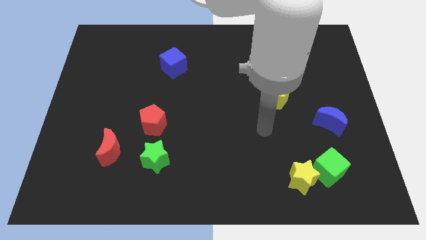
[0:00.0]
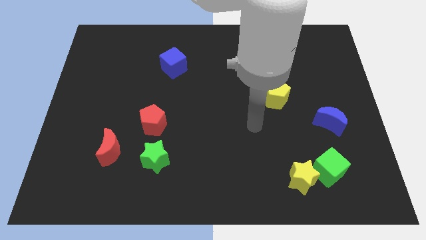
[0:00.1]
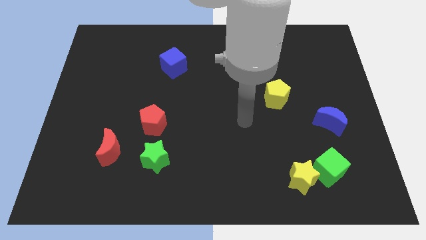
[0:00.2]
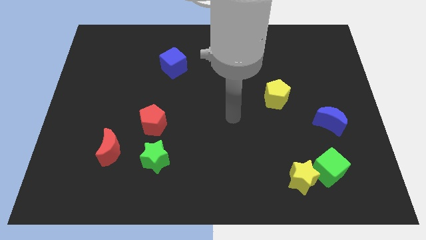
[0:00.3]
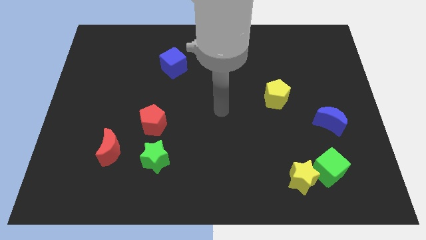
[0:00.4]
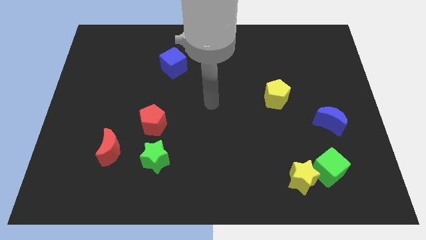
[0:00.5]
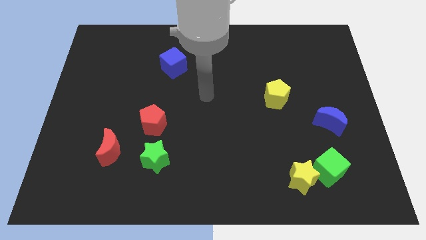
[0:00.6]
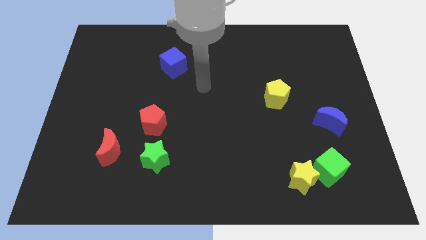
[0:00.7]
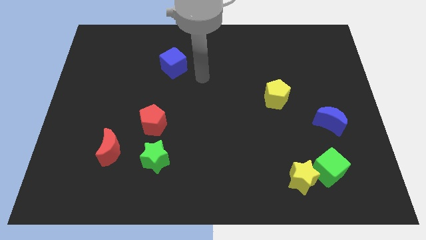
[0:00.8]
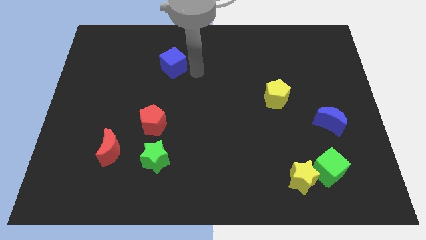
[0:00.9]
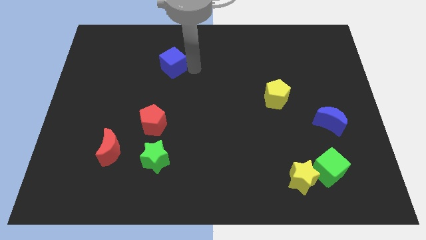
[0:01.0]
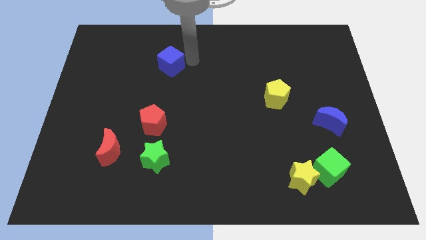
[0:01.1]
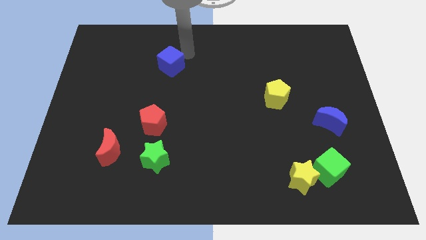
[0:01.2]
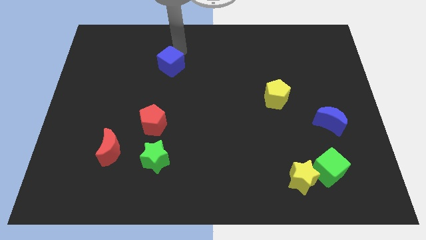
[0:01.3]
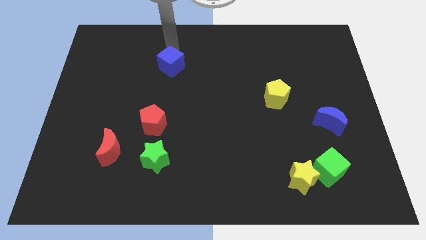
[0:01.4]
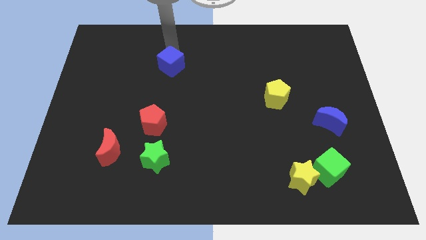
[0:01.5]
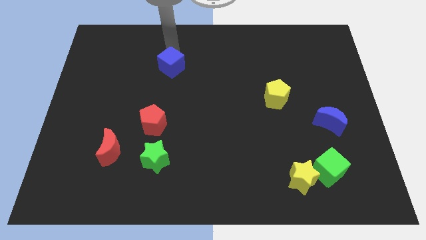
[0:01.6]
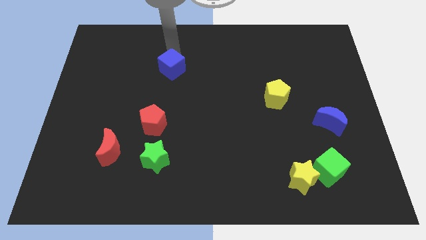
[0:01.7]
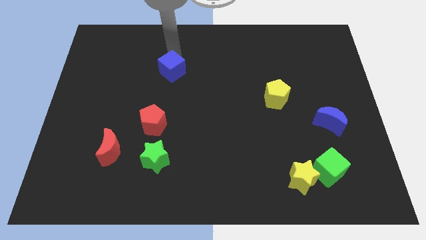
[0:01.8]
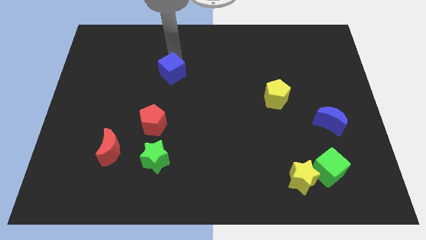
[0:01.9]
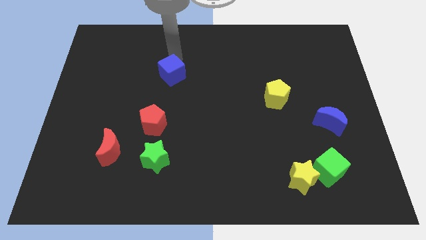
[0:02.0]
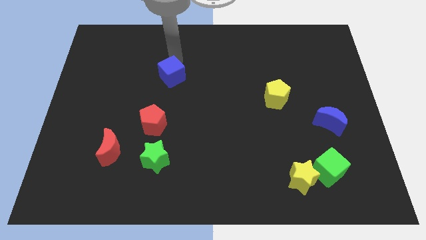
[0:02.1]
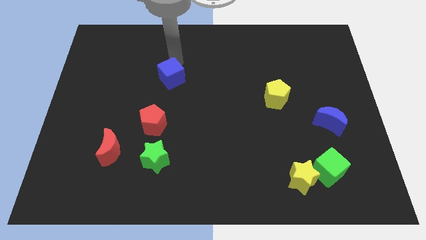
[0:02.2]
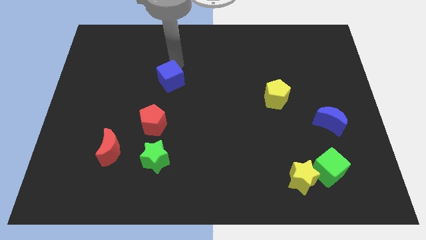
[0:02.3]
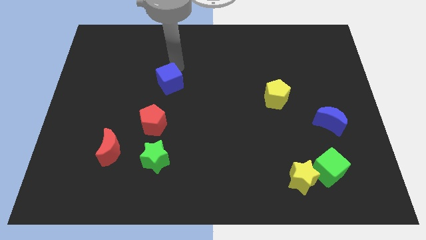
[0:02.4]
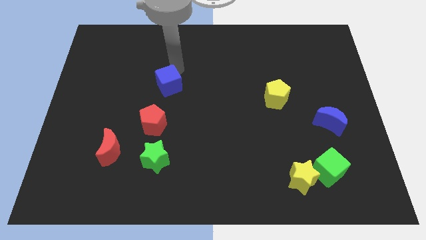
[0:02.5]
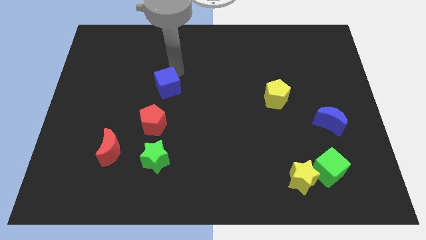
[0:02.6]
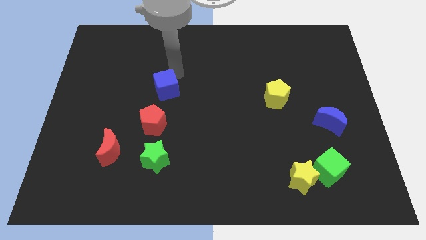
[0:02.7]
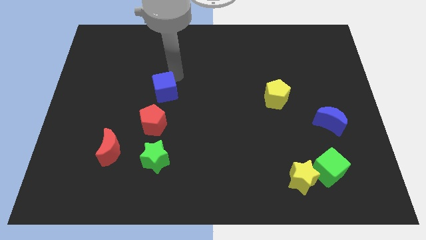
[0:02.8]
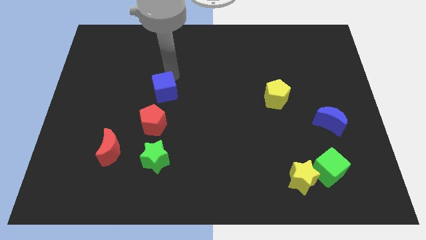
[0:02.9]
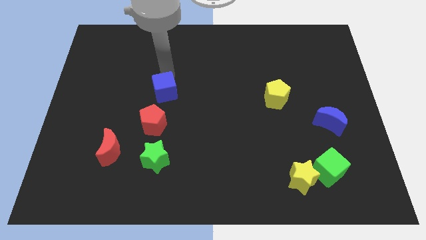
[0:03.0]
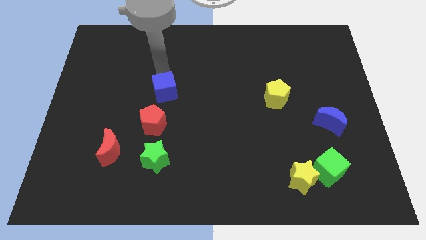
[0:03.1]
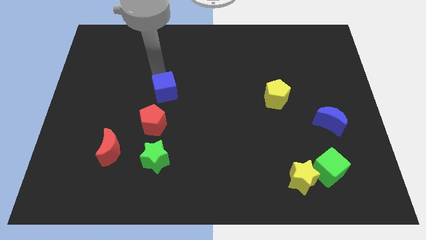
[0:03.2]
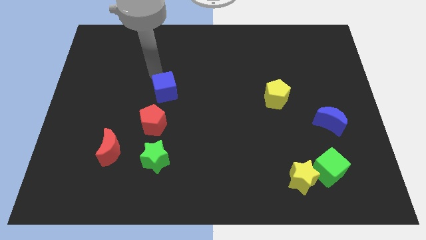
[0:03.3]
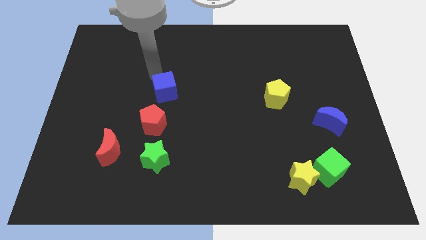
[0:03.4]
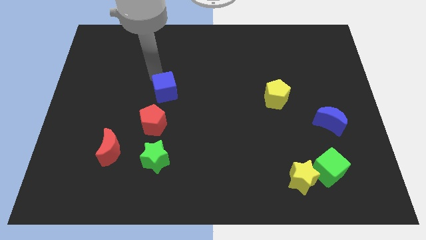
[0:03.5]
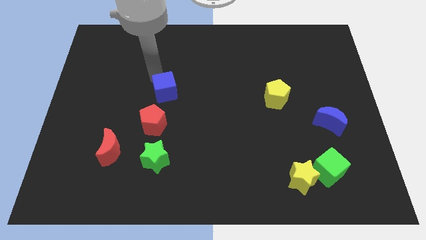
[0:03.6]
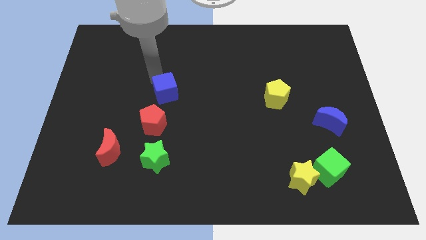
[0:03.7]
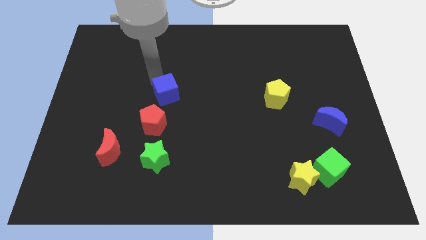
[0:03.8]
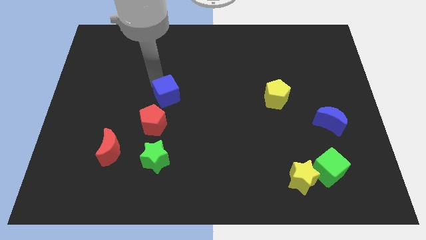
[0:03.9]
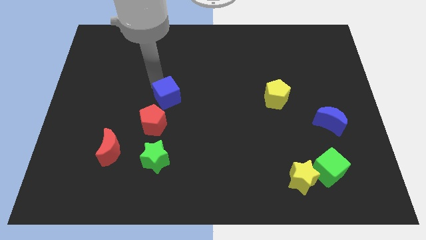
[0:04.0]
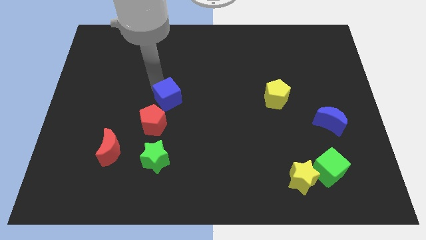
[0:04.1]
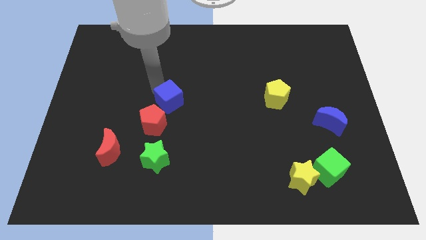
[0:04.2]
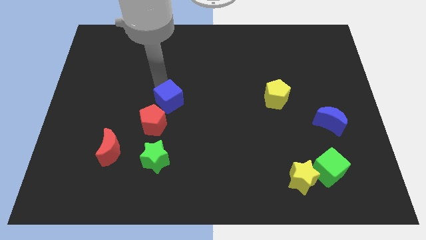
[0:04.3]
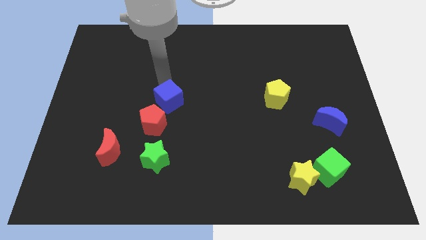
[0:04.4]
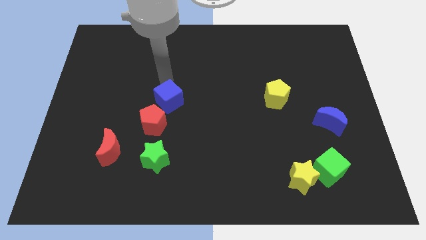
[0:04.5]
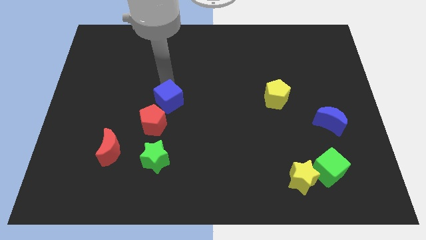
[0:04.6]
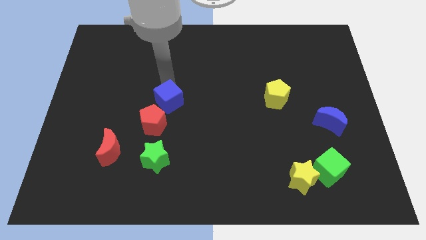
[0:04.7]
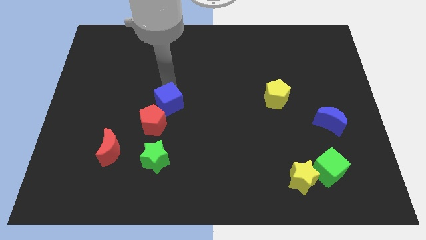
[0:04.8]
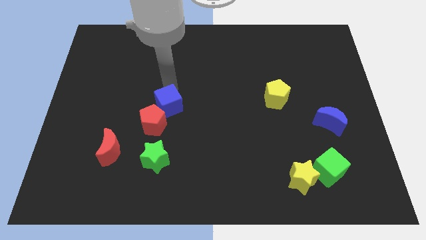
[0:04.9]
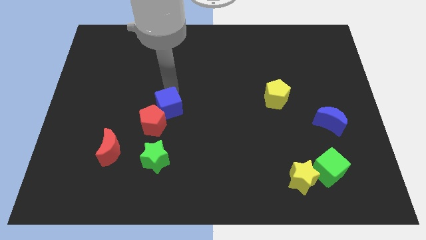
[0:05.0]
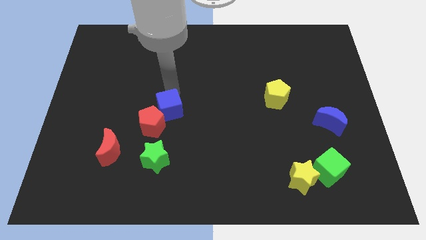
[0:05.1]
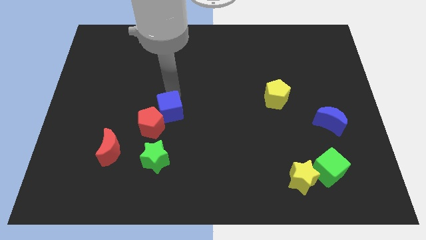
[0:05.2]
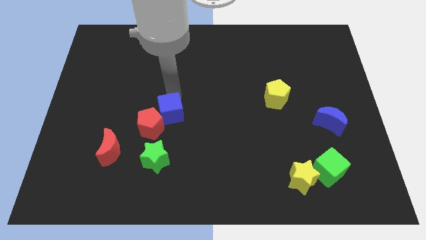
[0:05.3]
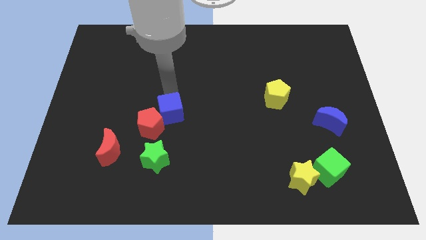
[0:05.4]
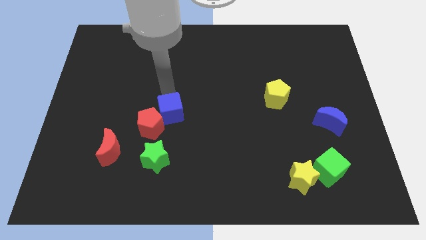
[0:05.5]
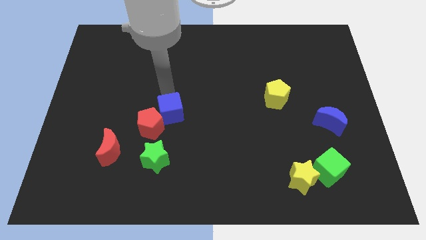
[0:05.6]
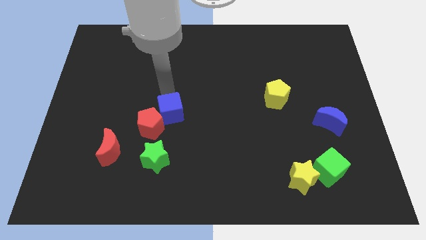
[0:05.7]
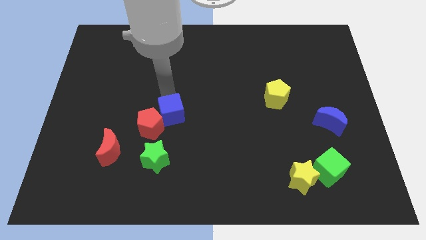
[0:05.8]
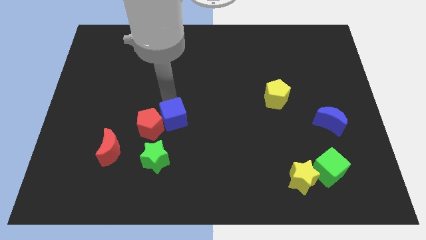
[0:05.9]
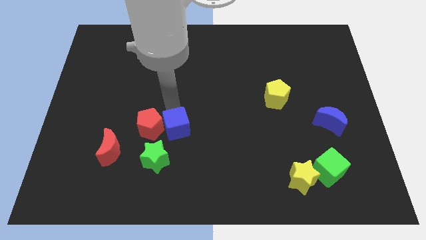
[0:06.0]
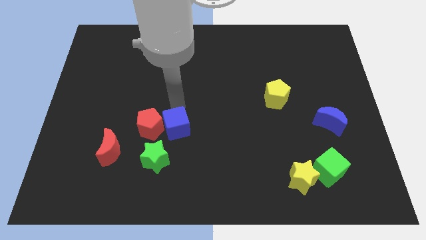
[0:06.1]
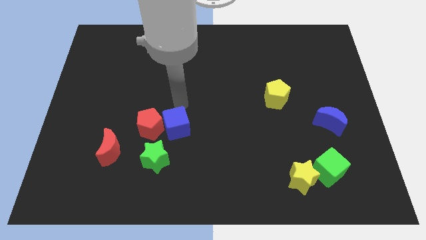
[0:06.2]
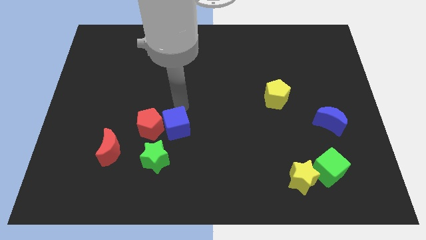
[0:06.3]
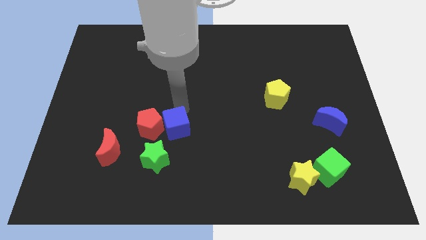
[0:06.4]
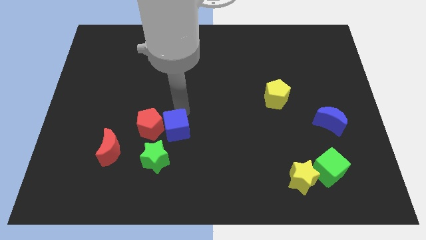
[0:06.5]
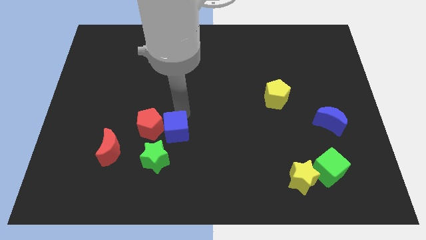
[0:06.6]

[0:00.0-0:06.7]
push the blue cube downwards

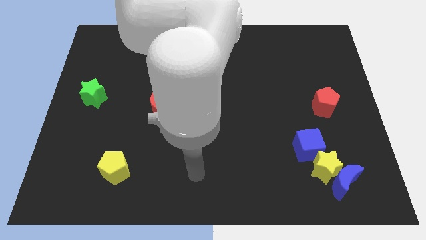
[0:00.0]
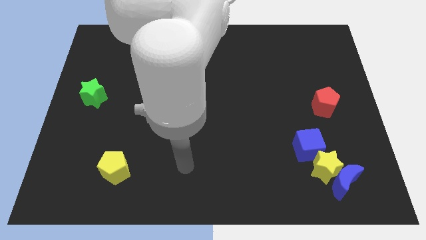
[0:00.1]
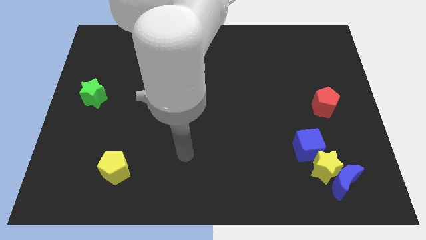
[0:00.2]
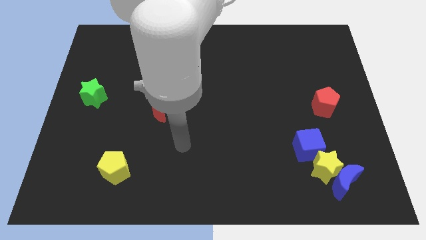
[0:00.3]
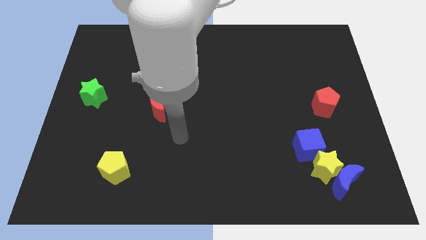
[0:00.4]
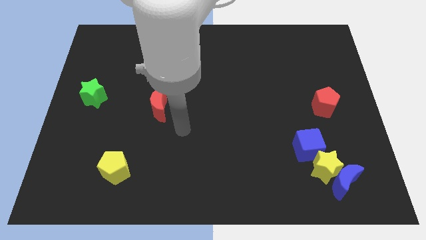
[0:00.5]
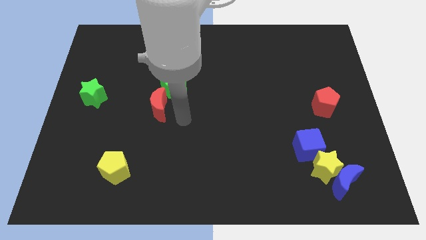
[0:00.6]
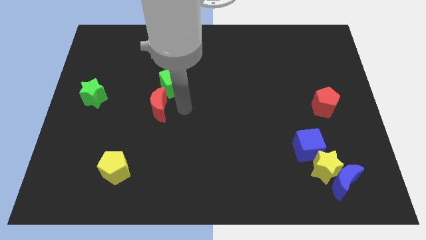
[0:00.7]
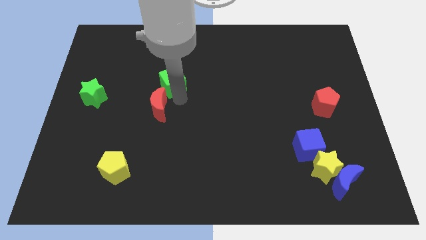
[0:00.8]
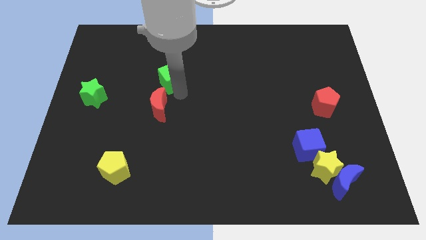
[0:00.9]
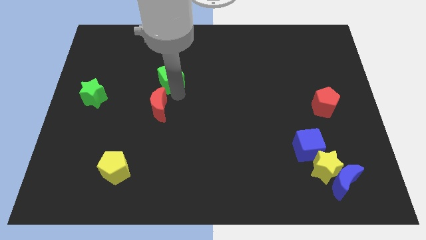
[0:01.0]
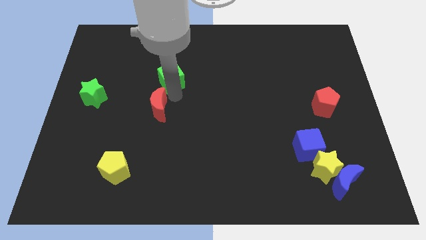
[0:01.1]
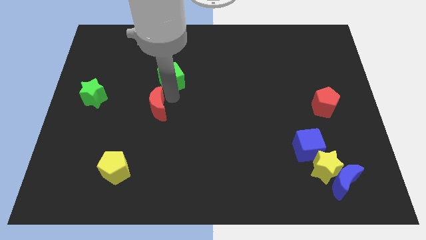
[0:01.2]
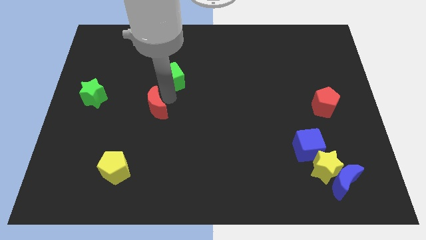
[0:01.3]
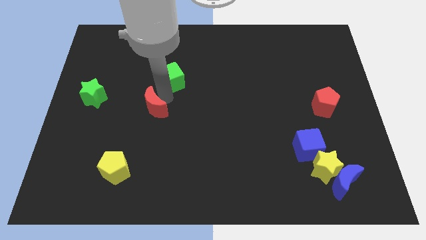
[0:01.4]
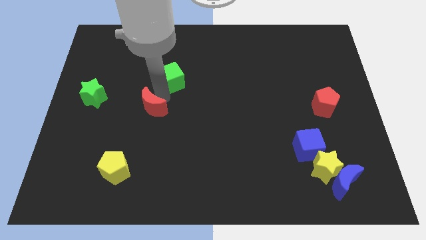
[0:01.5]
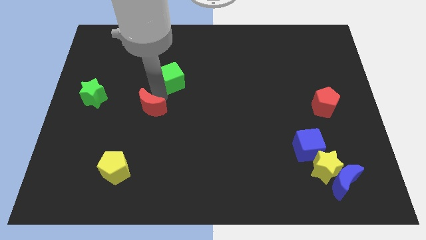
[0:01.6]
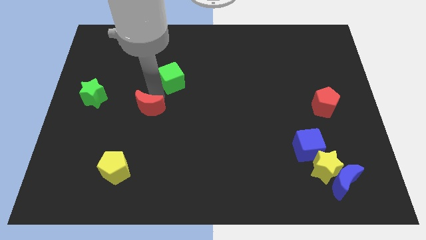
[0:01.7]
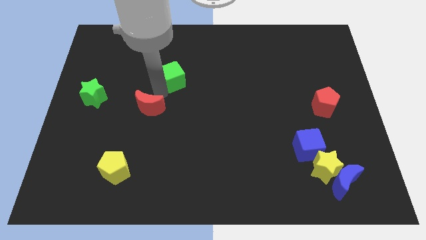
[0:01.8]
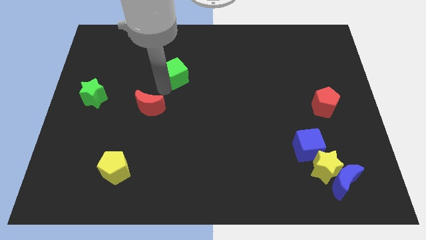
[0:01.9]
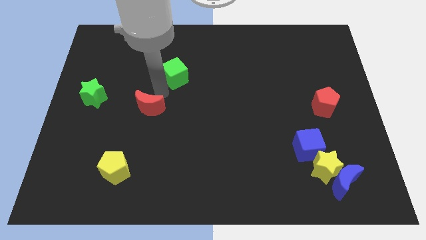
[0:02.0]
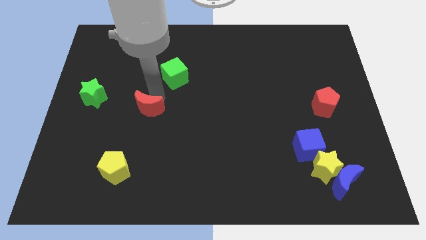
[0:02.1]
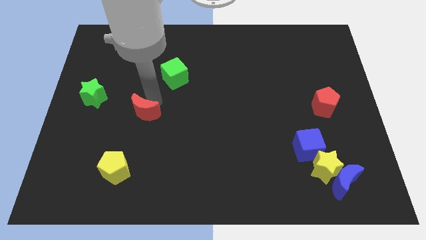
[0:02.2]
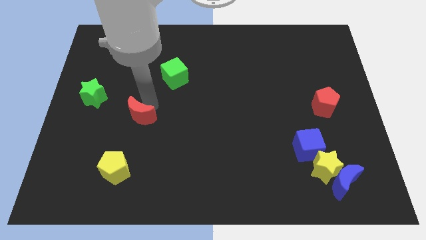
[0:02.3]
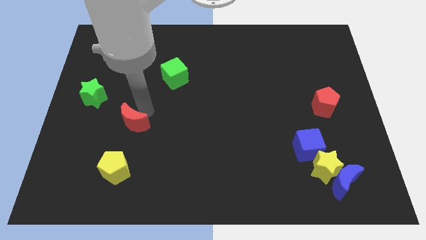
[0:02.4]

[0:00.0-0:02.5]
slide the red moon down and left somewhat
